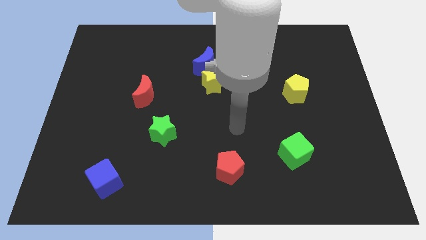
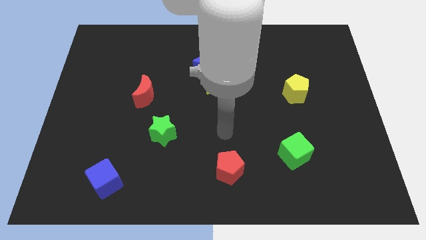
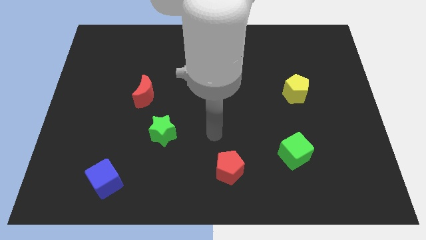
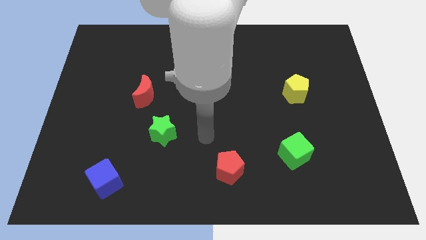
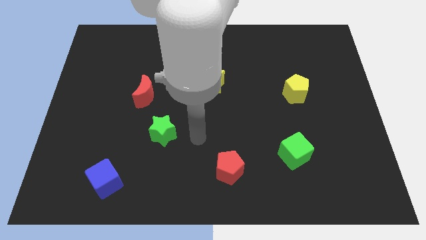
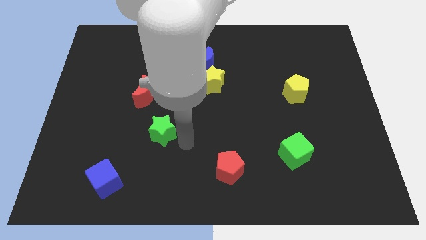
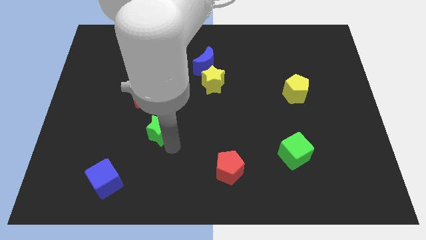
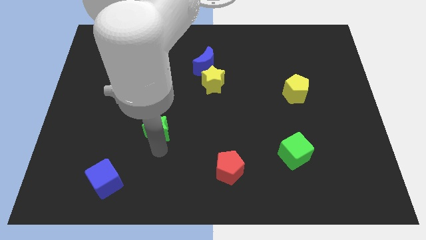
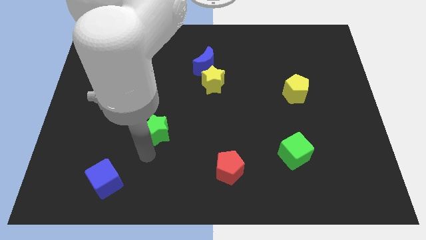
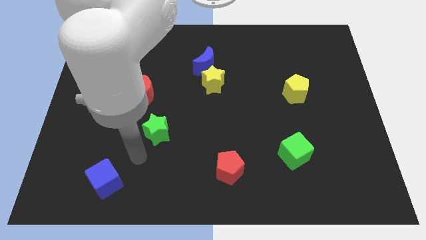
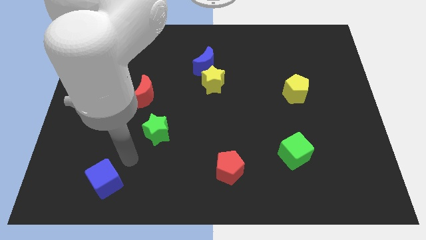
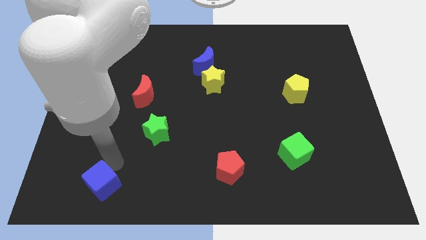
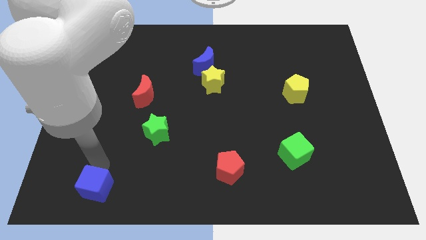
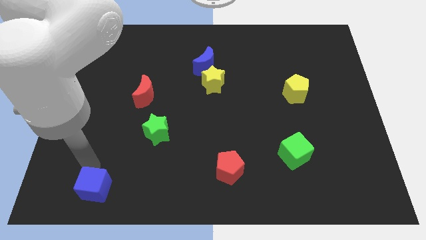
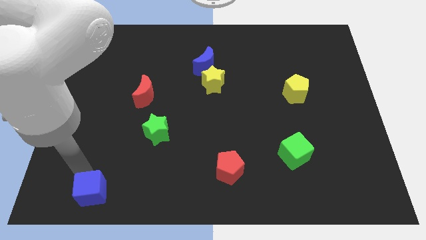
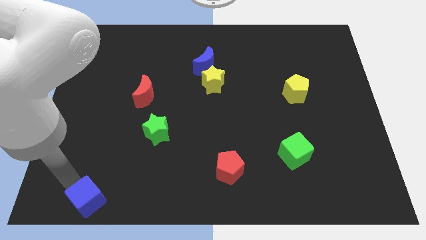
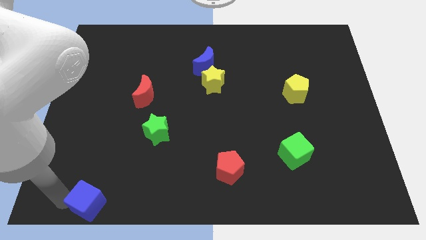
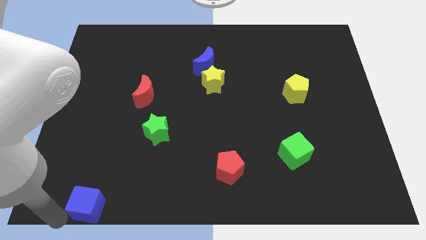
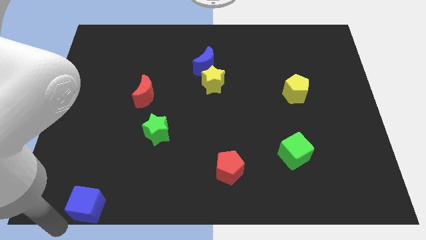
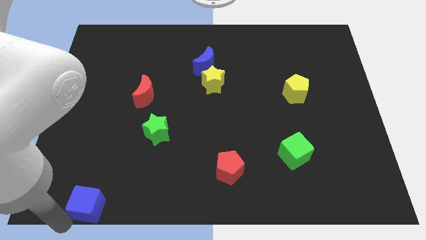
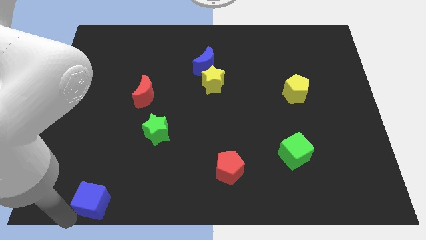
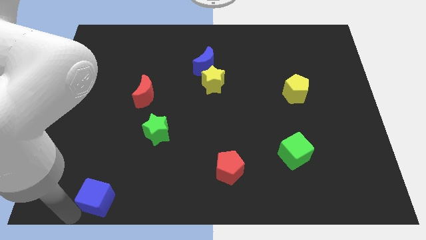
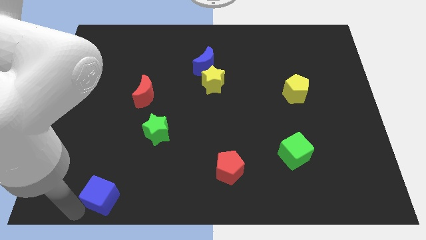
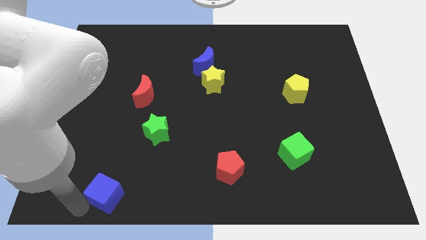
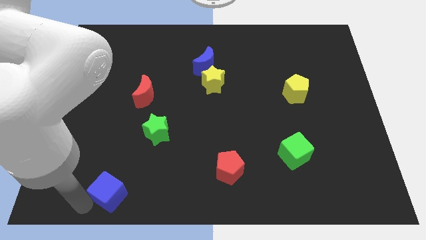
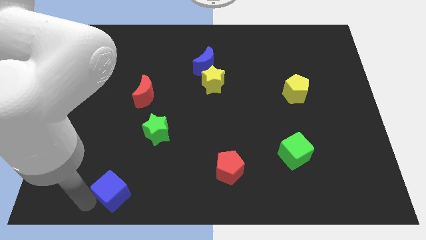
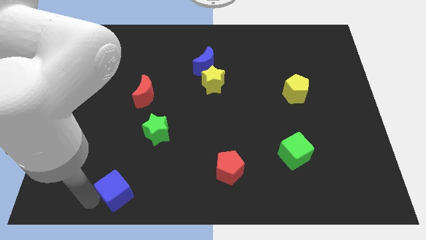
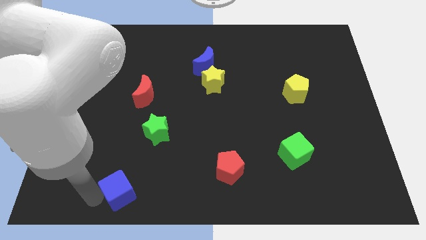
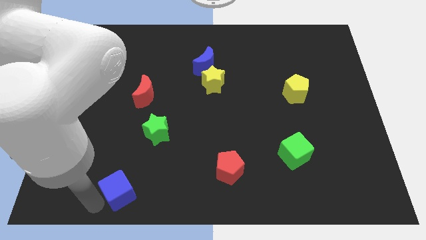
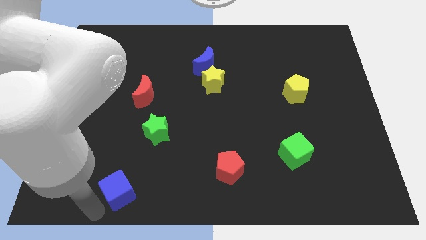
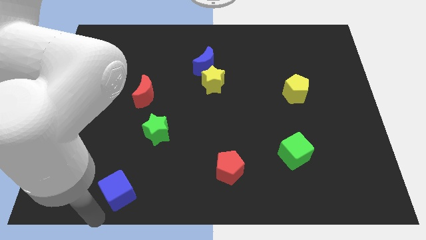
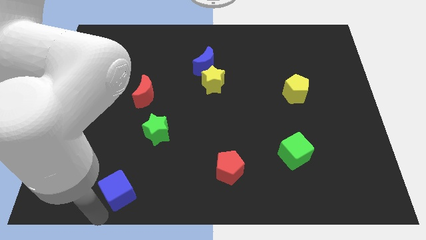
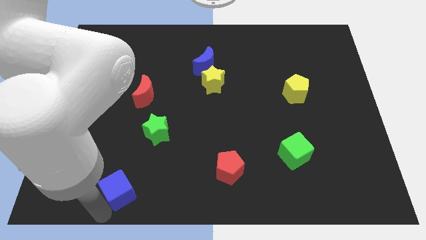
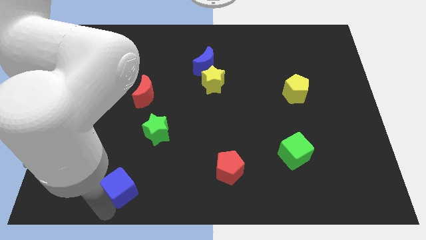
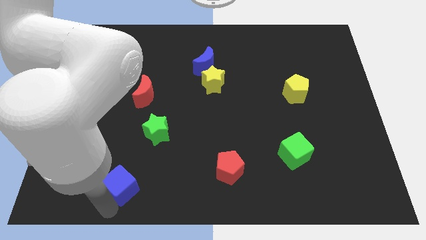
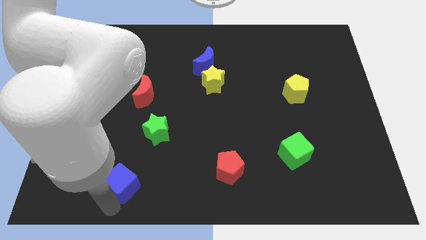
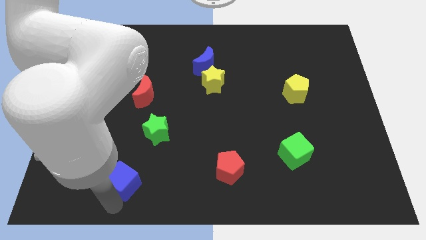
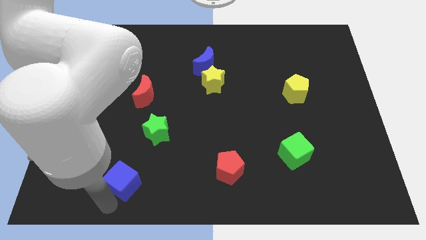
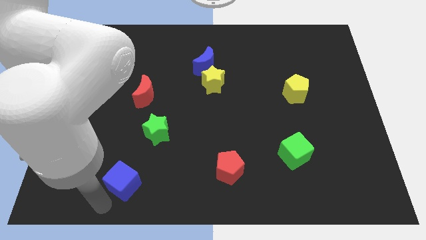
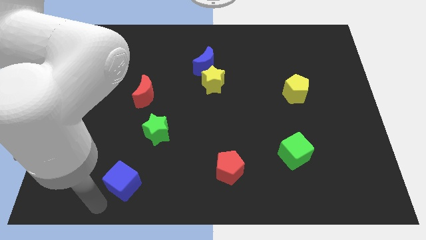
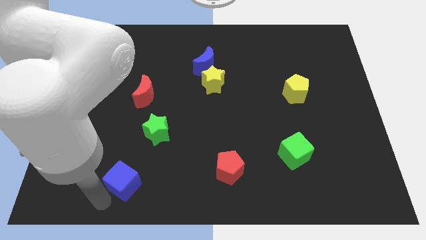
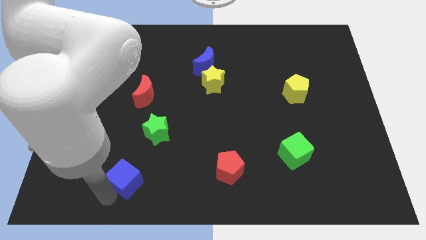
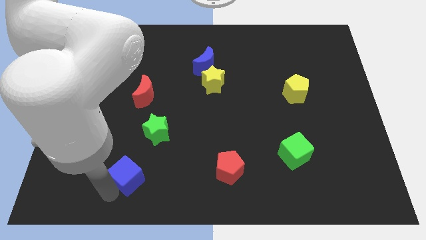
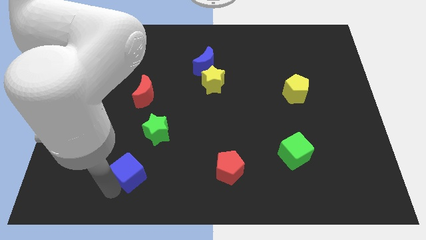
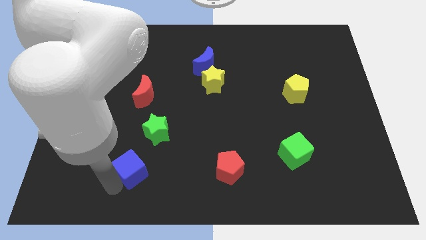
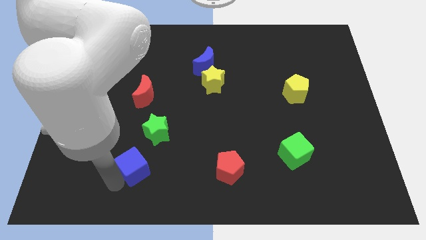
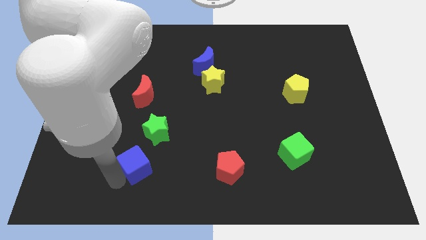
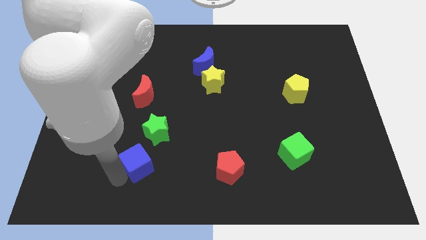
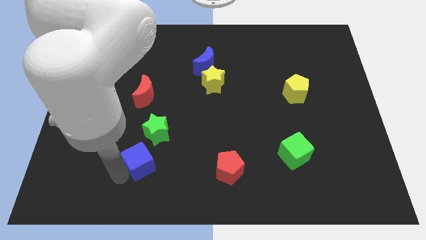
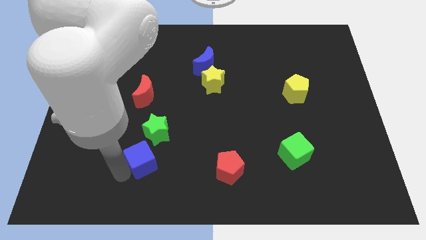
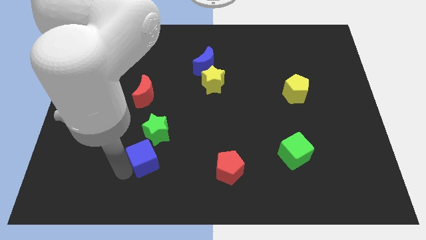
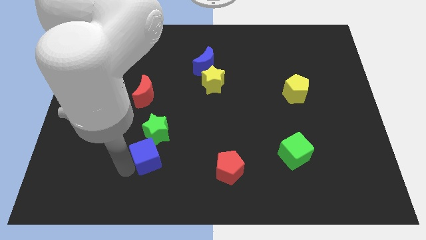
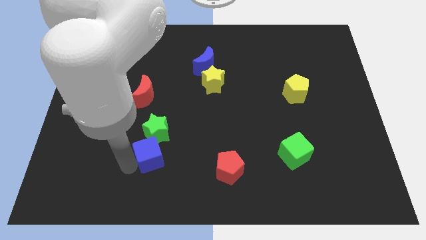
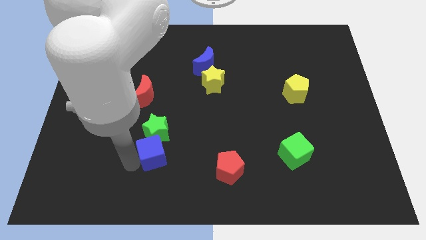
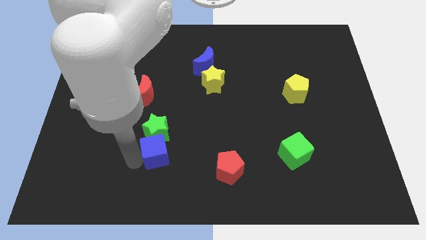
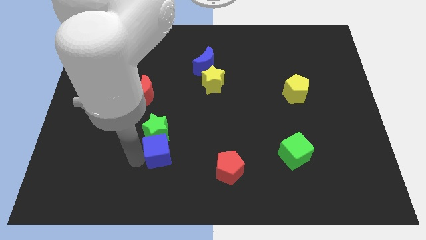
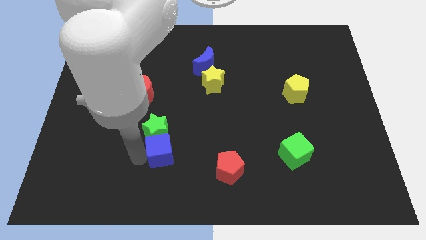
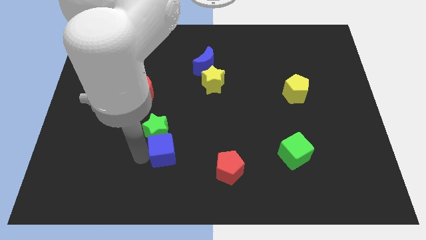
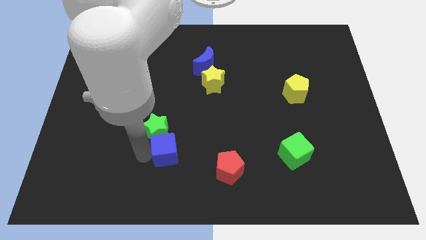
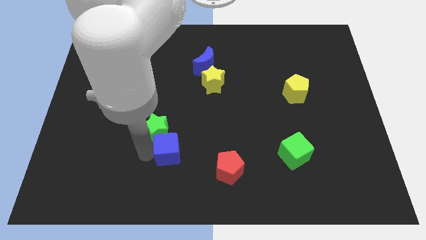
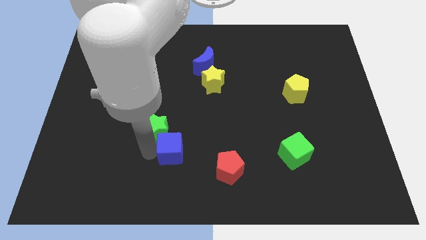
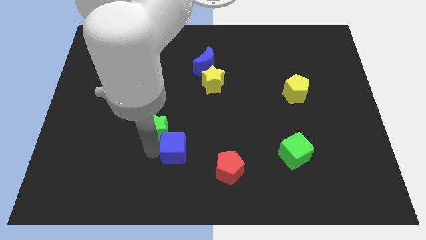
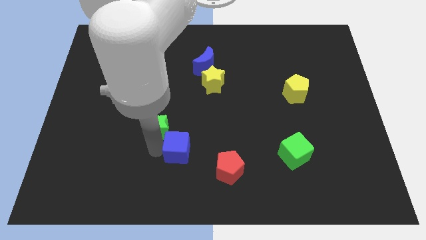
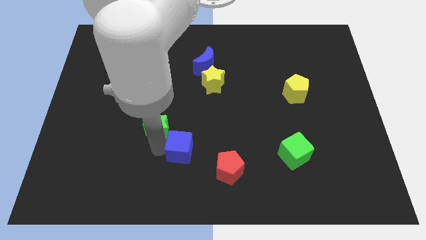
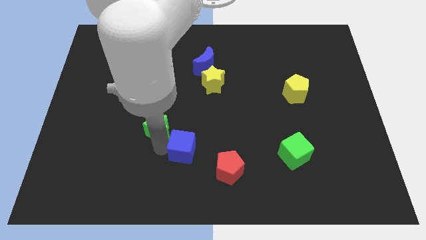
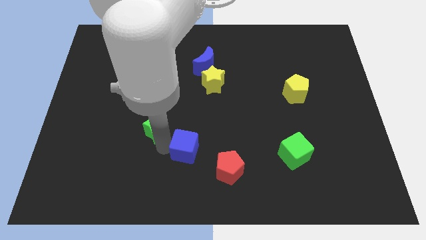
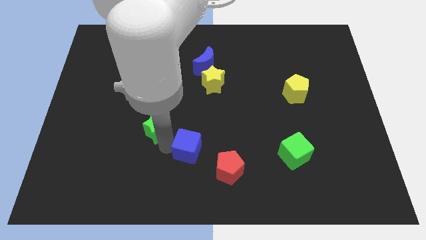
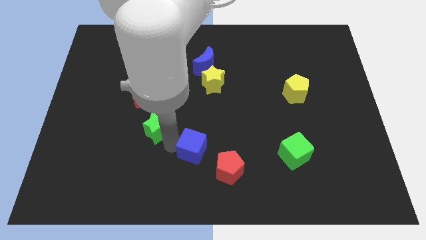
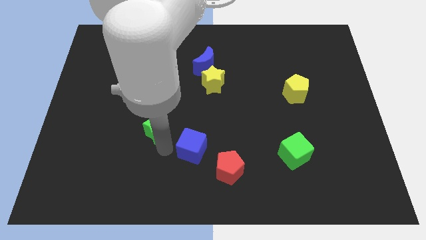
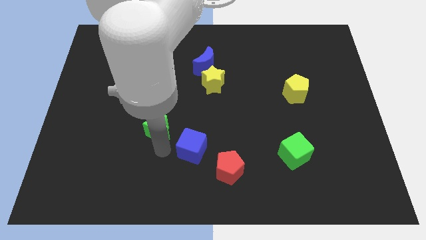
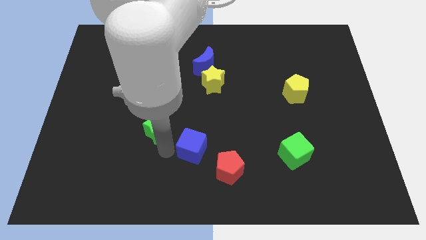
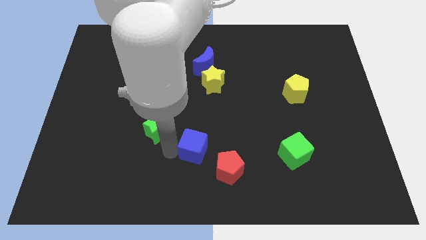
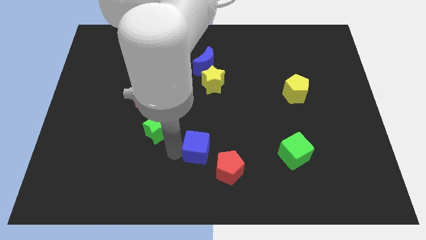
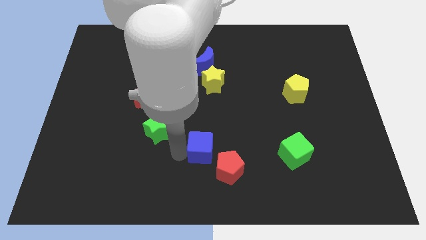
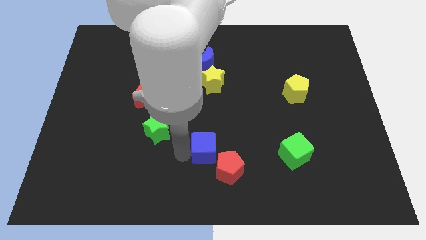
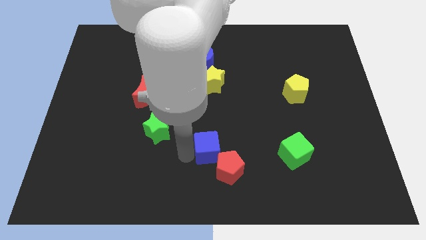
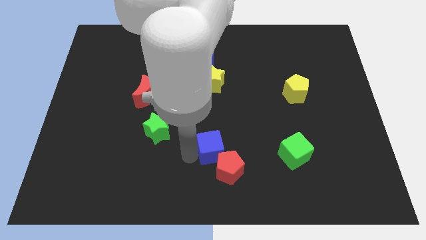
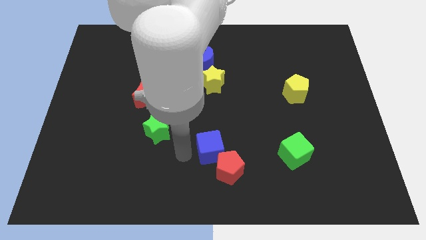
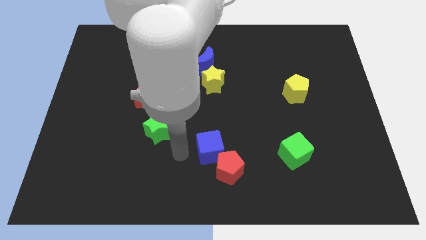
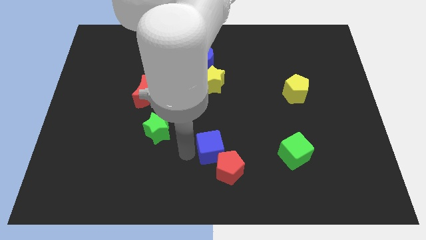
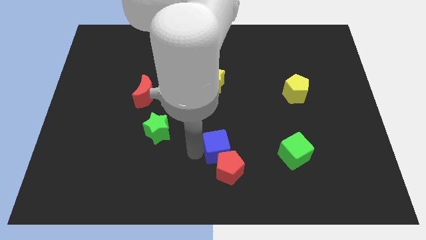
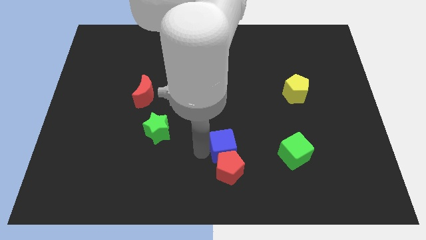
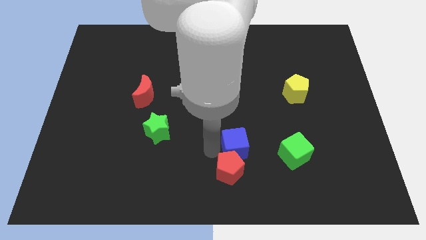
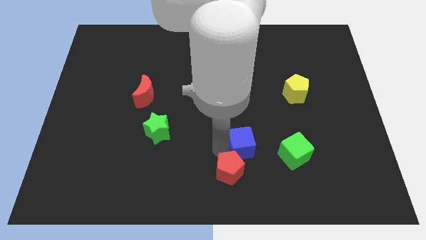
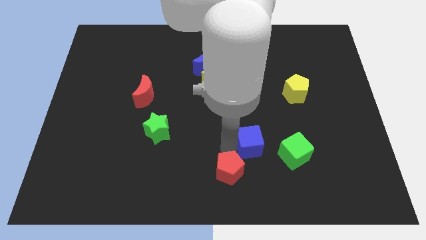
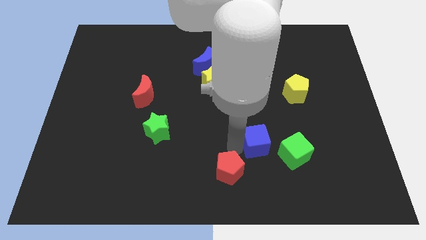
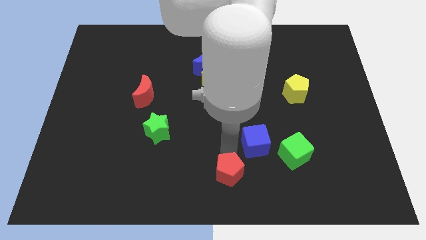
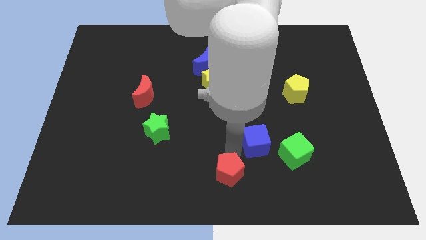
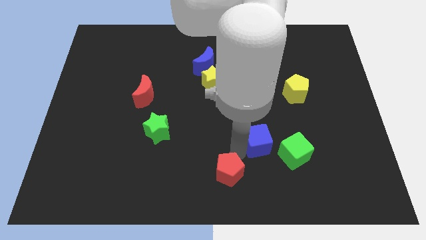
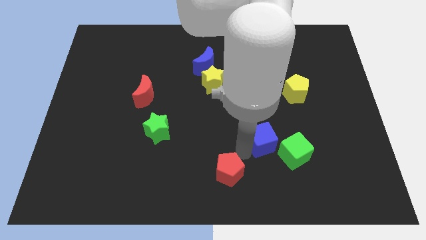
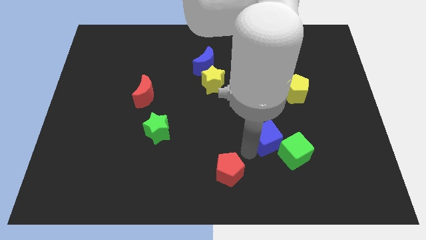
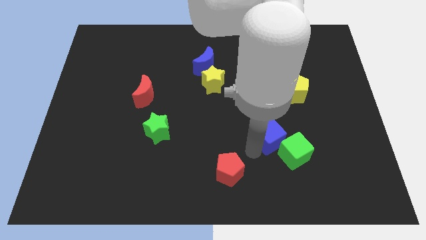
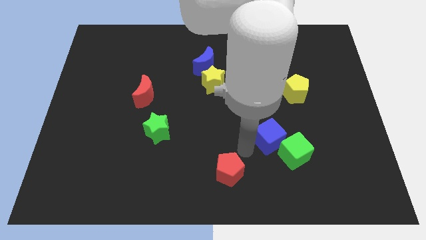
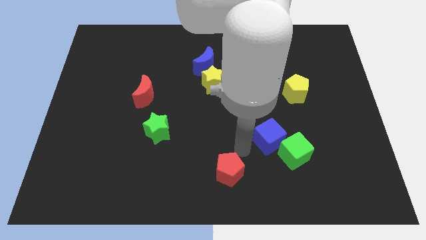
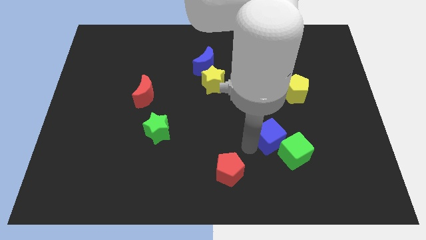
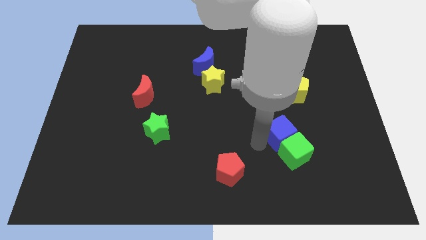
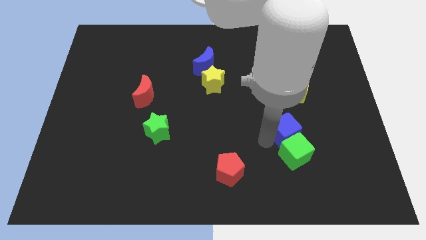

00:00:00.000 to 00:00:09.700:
move the blue cube below the yellow pentagon
